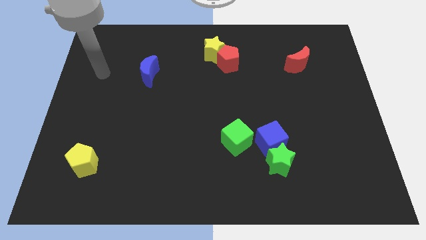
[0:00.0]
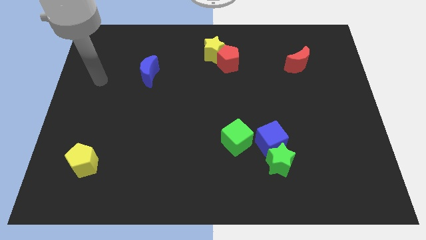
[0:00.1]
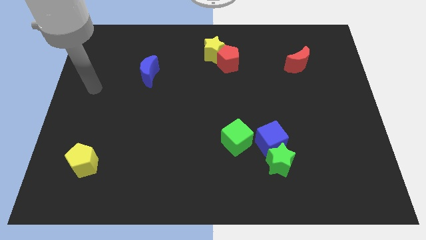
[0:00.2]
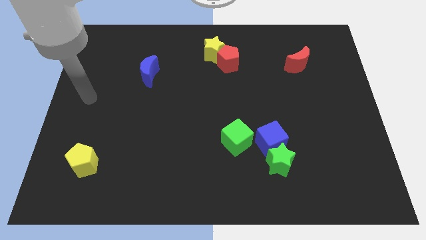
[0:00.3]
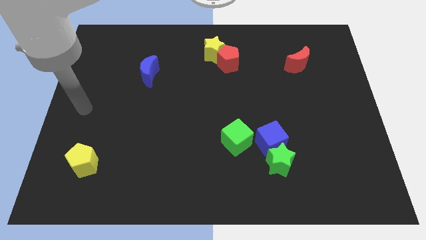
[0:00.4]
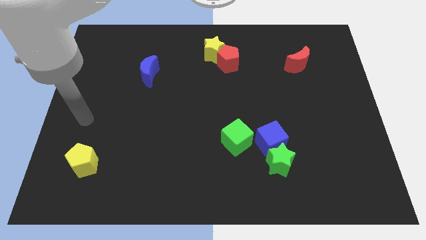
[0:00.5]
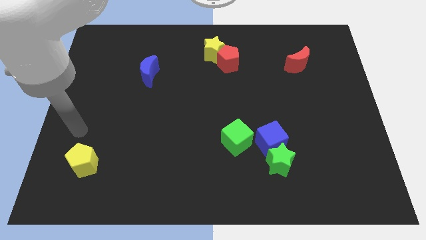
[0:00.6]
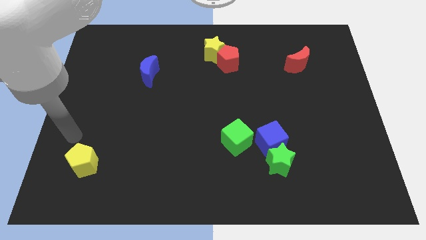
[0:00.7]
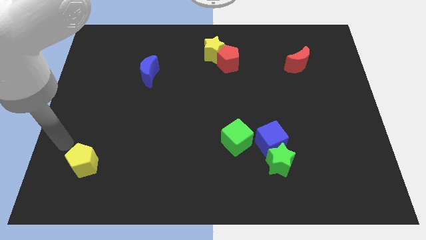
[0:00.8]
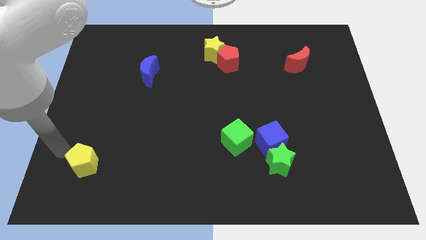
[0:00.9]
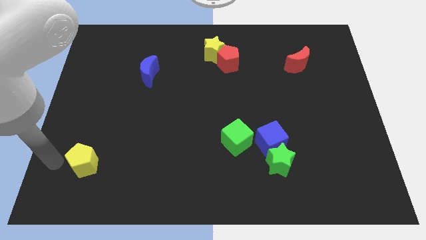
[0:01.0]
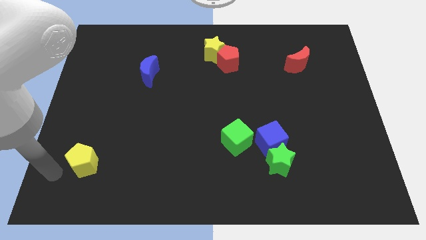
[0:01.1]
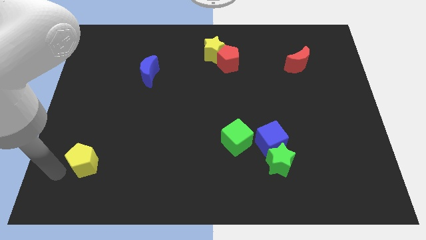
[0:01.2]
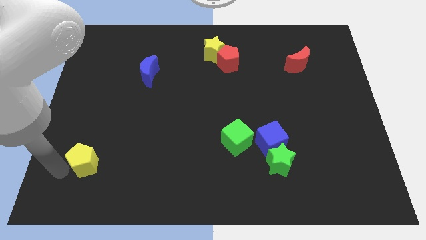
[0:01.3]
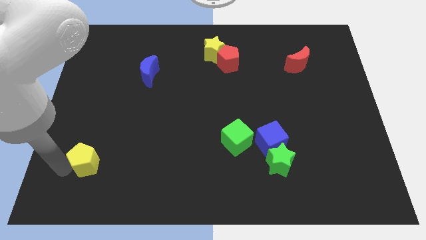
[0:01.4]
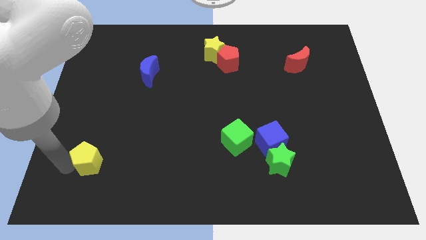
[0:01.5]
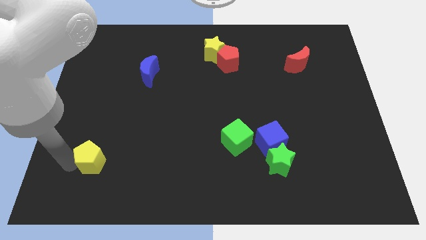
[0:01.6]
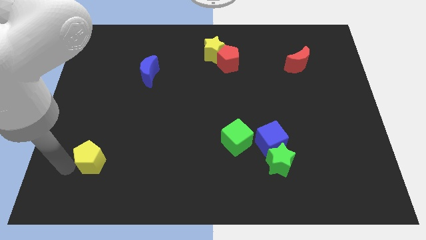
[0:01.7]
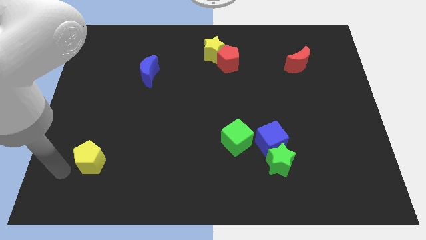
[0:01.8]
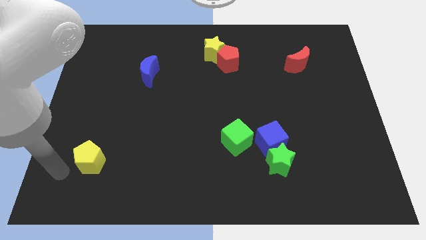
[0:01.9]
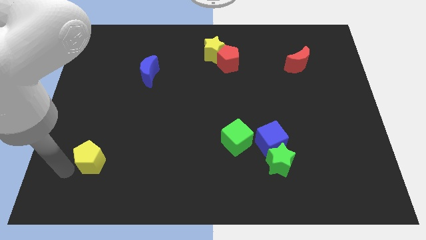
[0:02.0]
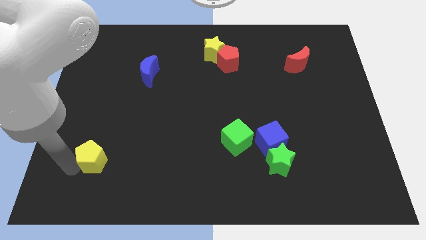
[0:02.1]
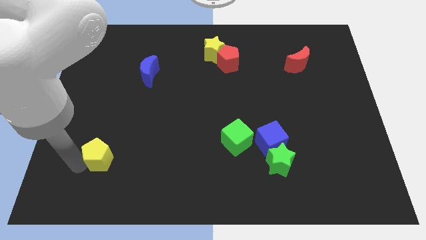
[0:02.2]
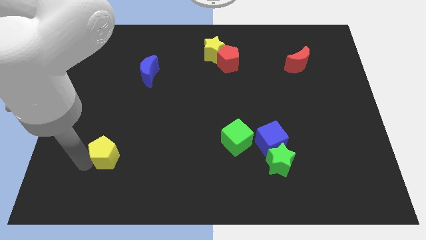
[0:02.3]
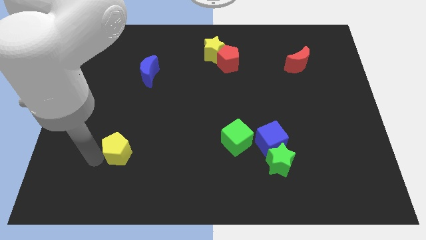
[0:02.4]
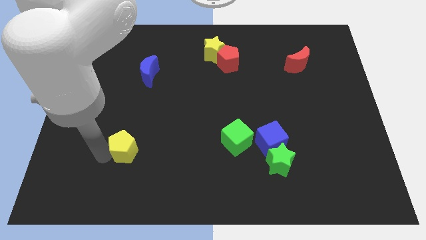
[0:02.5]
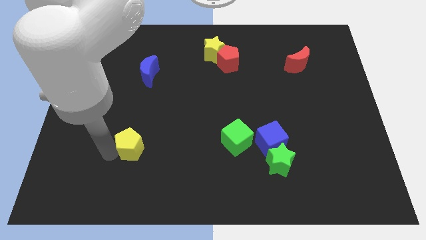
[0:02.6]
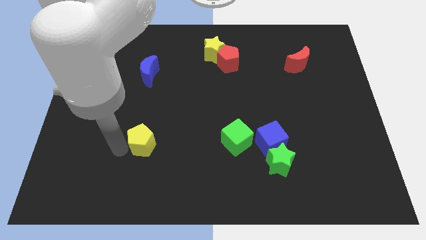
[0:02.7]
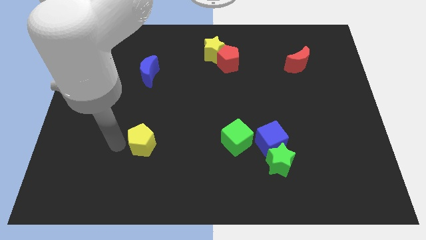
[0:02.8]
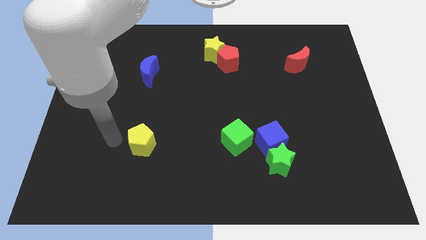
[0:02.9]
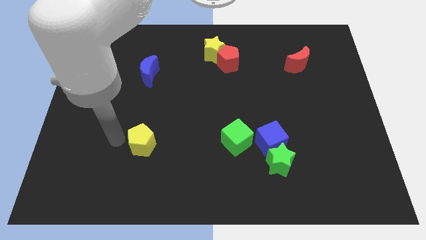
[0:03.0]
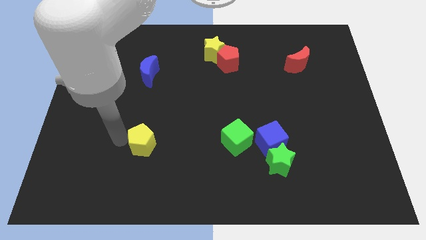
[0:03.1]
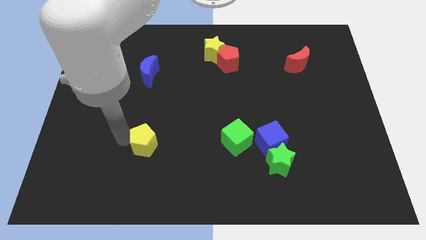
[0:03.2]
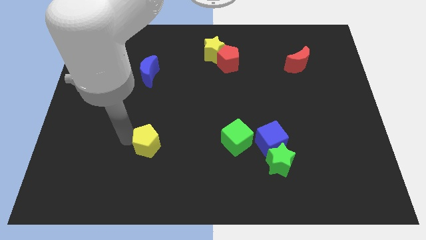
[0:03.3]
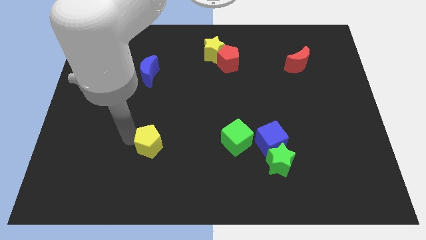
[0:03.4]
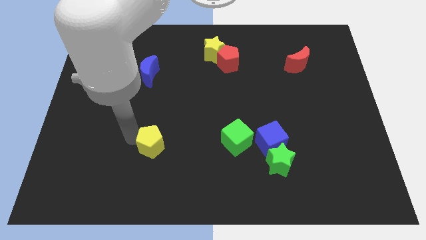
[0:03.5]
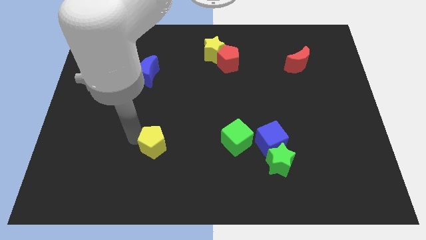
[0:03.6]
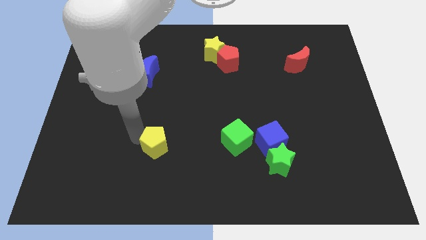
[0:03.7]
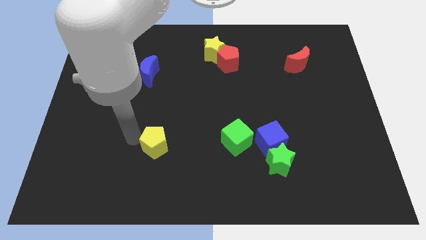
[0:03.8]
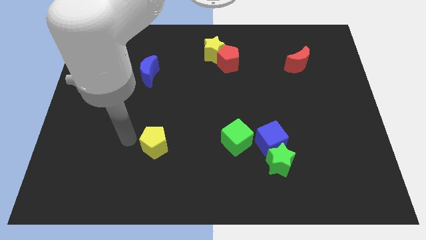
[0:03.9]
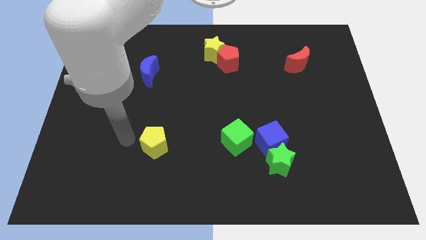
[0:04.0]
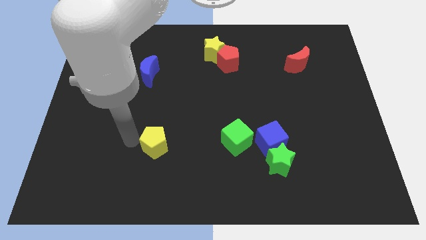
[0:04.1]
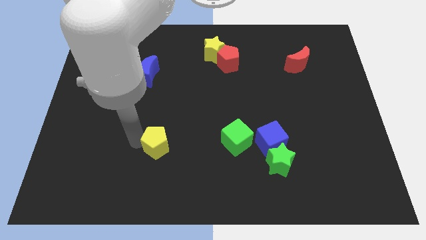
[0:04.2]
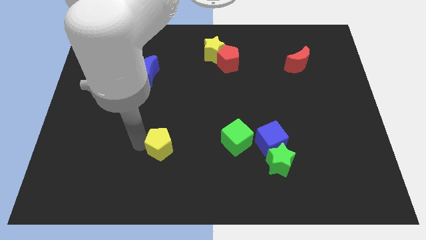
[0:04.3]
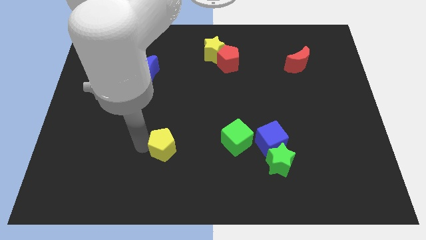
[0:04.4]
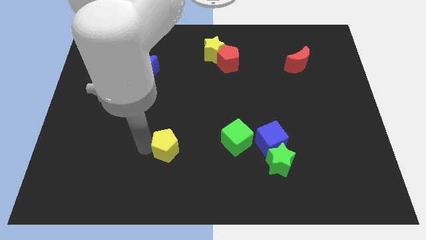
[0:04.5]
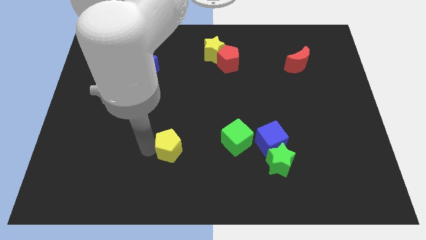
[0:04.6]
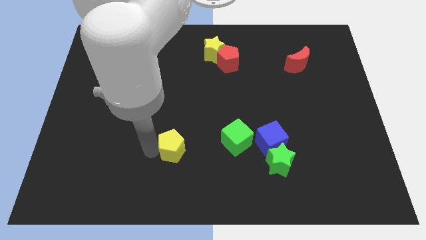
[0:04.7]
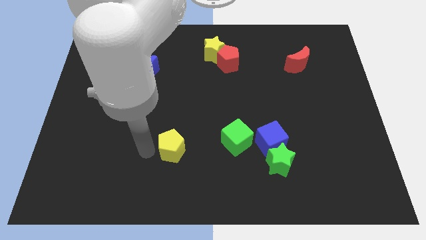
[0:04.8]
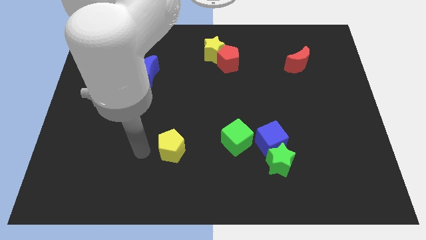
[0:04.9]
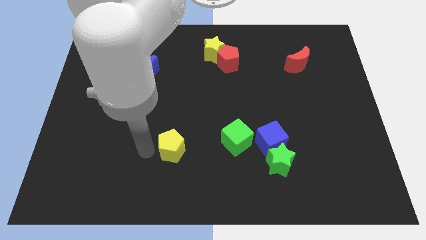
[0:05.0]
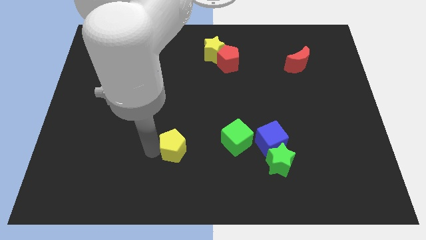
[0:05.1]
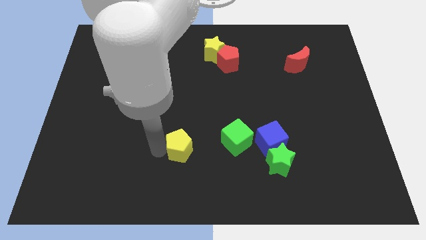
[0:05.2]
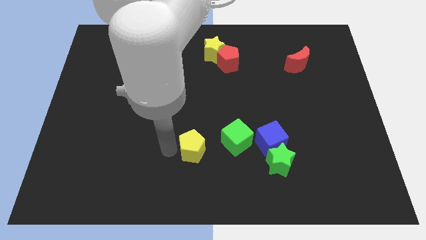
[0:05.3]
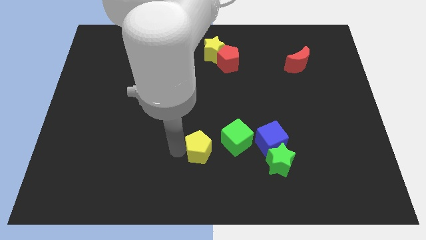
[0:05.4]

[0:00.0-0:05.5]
slide the yellow pentagon left of the blue cube

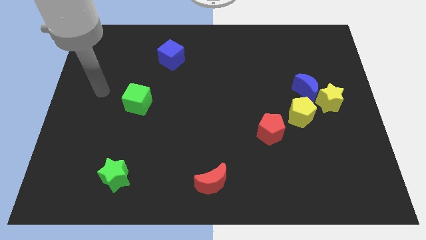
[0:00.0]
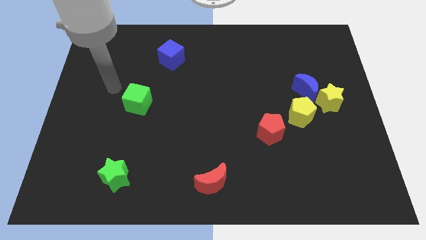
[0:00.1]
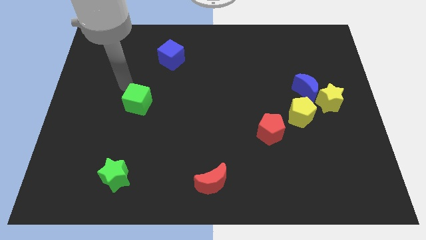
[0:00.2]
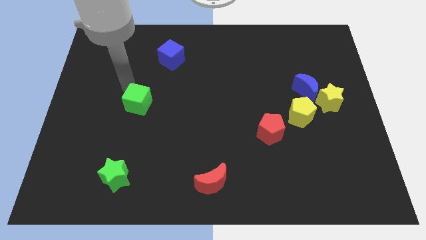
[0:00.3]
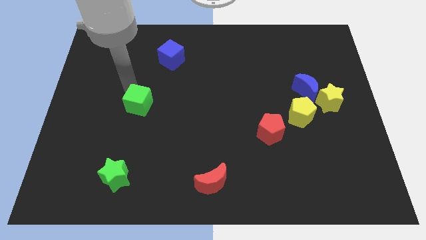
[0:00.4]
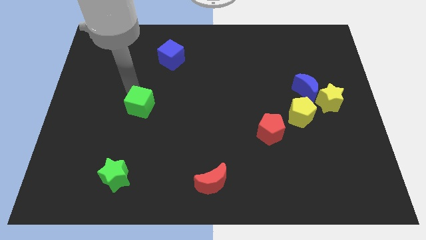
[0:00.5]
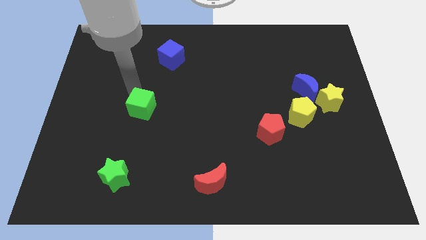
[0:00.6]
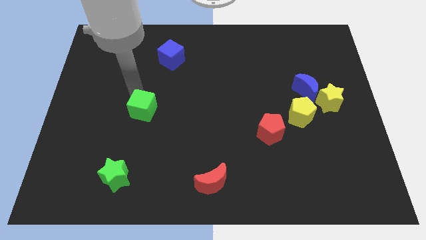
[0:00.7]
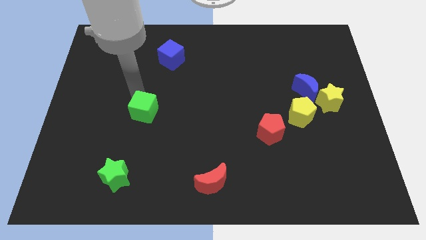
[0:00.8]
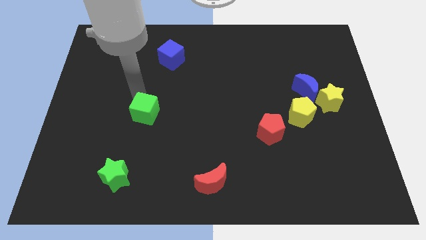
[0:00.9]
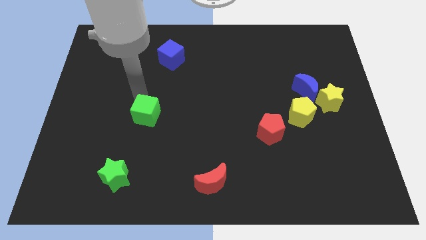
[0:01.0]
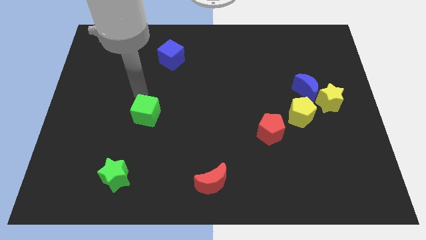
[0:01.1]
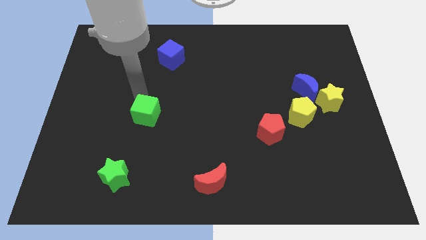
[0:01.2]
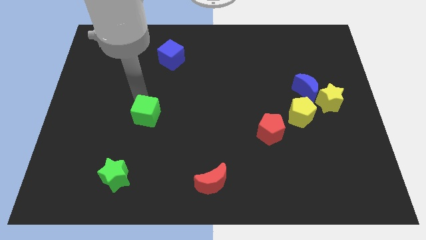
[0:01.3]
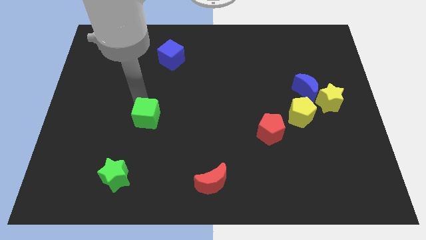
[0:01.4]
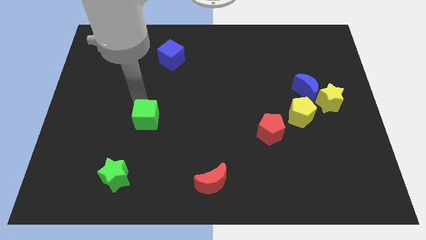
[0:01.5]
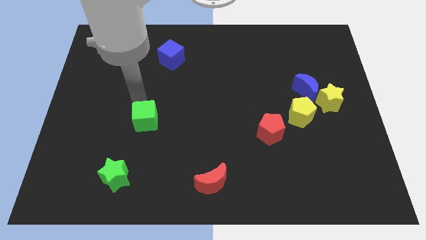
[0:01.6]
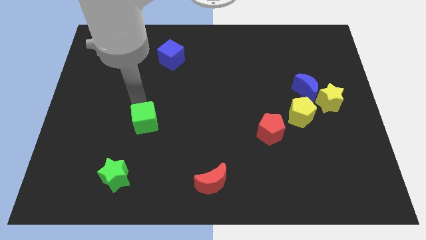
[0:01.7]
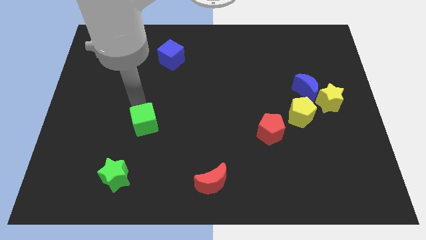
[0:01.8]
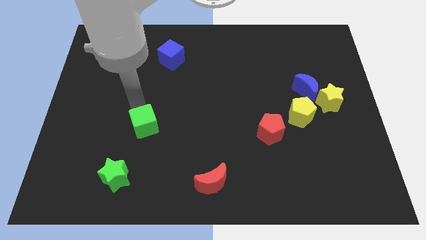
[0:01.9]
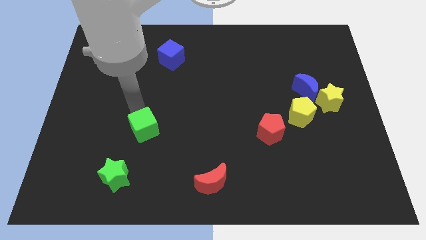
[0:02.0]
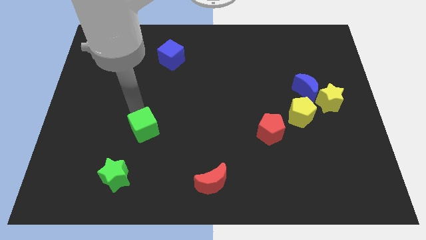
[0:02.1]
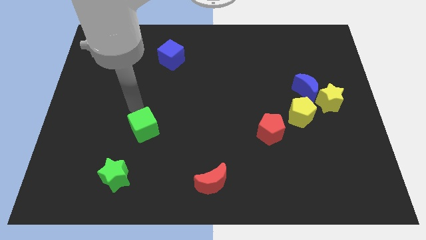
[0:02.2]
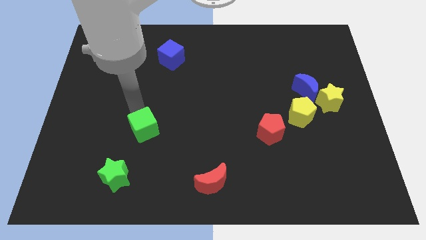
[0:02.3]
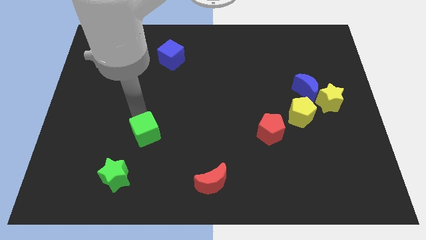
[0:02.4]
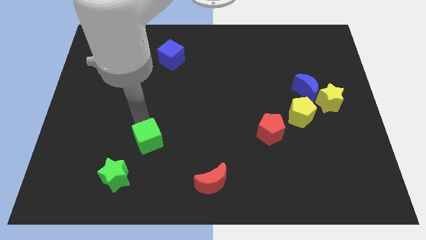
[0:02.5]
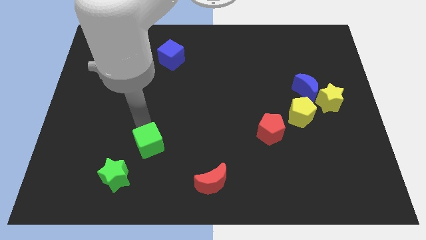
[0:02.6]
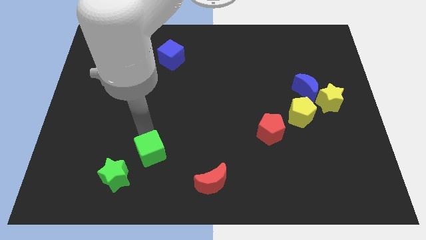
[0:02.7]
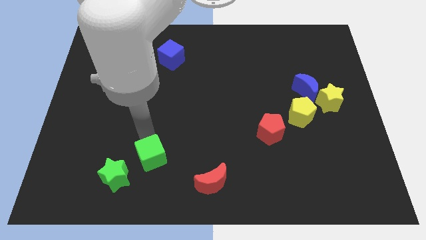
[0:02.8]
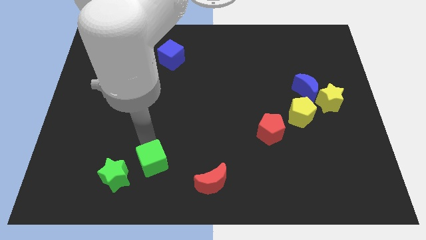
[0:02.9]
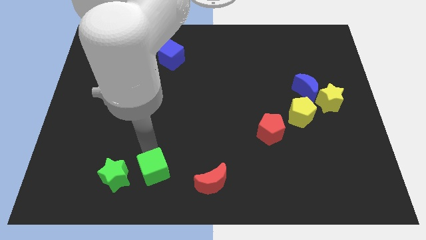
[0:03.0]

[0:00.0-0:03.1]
move the green cube left of the red moon
